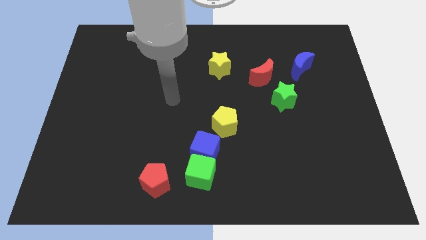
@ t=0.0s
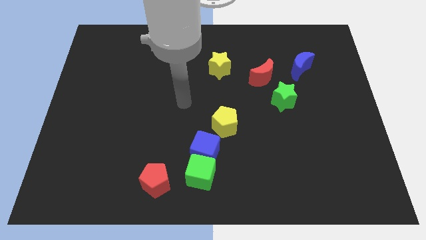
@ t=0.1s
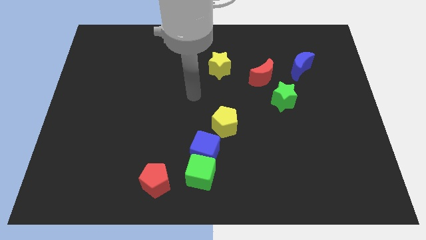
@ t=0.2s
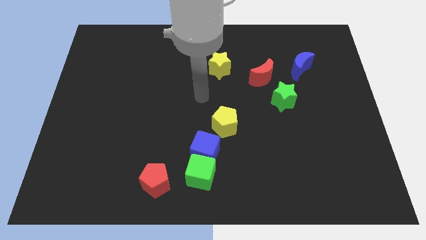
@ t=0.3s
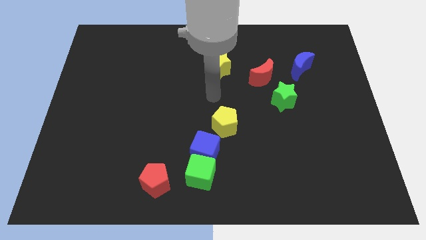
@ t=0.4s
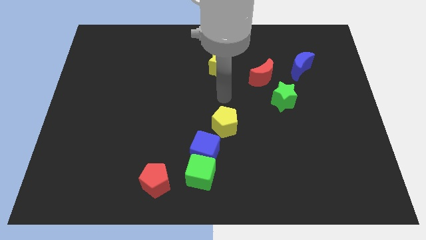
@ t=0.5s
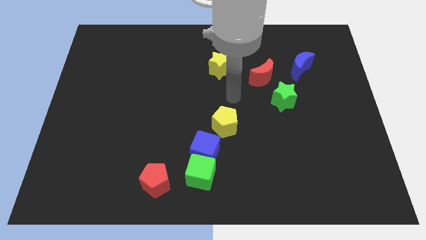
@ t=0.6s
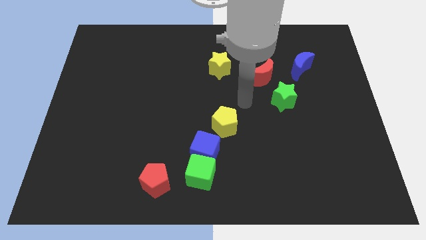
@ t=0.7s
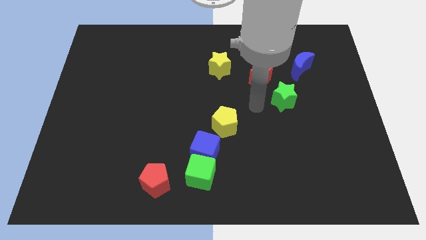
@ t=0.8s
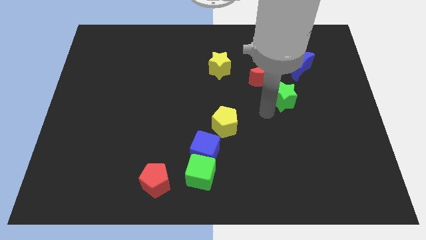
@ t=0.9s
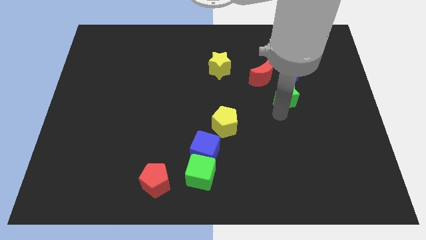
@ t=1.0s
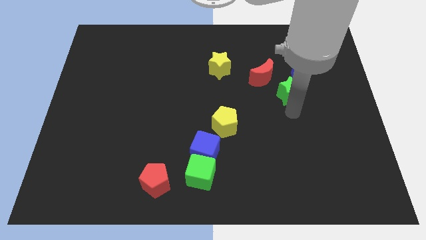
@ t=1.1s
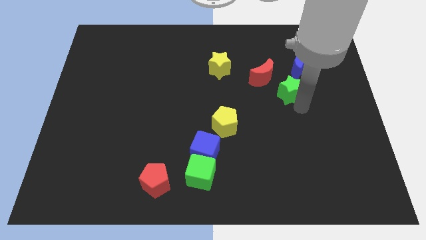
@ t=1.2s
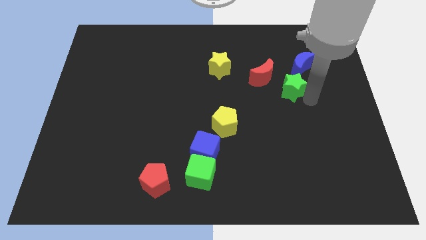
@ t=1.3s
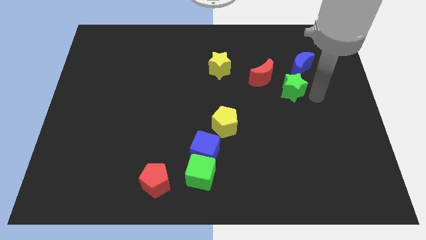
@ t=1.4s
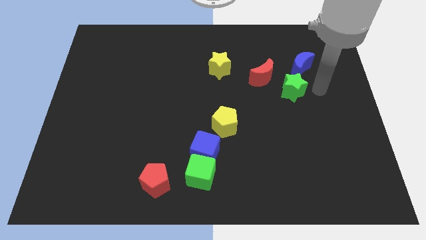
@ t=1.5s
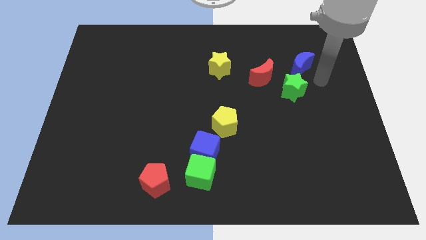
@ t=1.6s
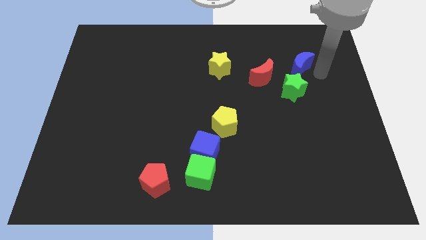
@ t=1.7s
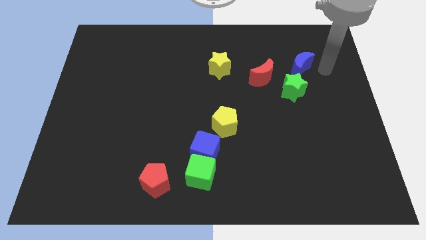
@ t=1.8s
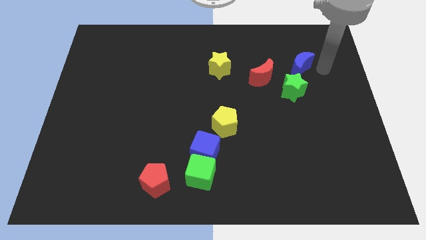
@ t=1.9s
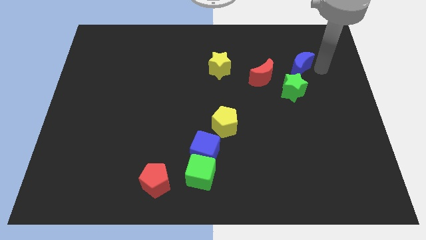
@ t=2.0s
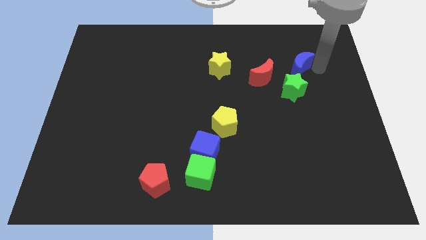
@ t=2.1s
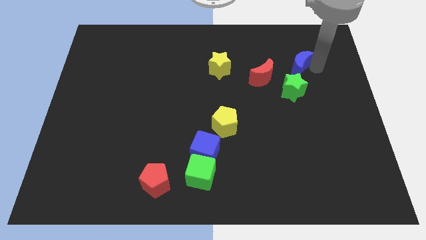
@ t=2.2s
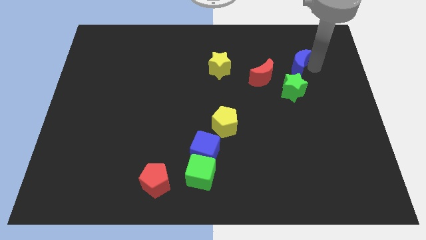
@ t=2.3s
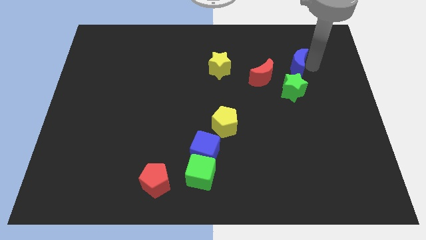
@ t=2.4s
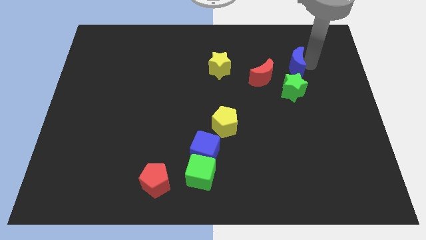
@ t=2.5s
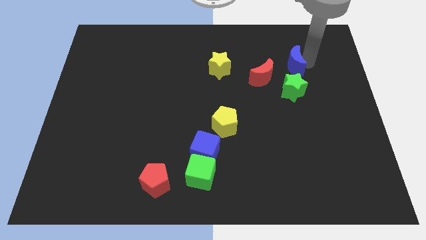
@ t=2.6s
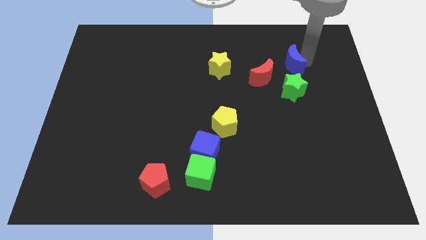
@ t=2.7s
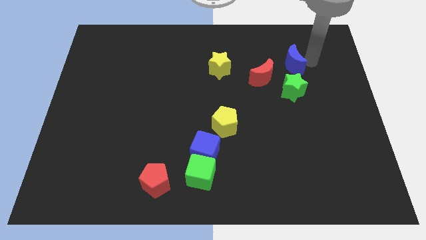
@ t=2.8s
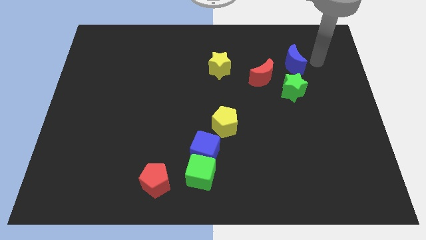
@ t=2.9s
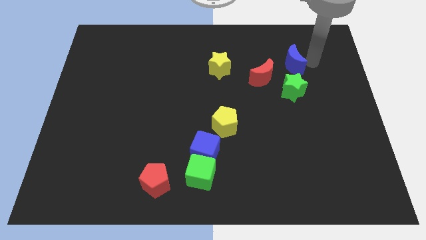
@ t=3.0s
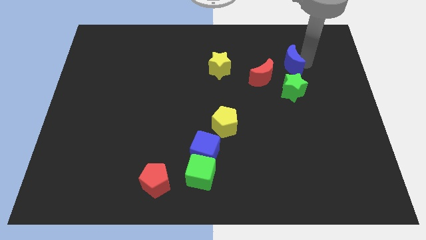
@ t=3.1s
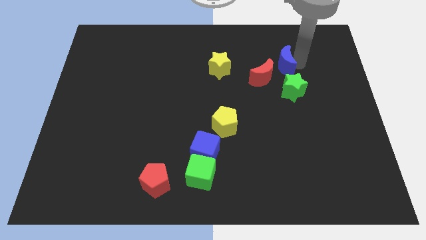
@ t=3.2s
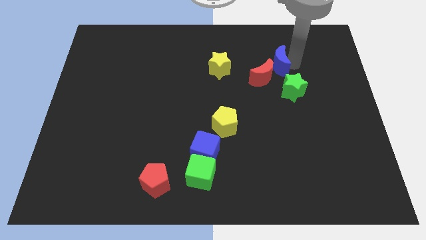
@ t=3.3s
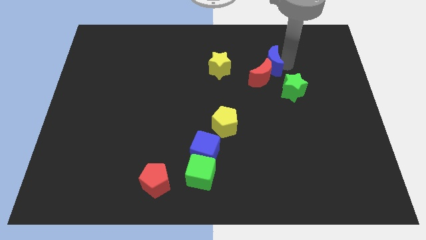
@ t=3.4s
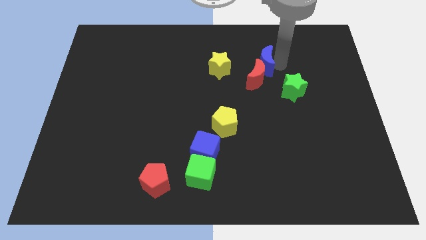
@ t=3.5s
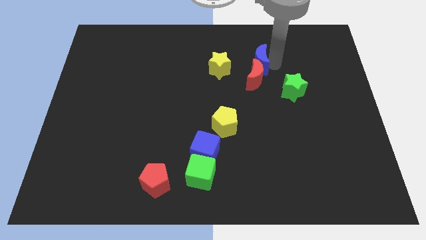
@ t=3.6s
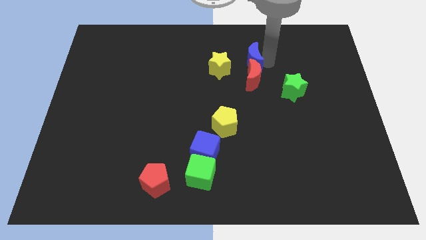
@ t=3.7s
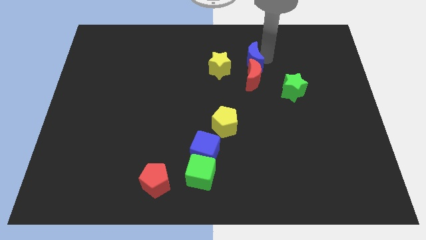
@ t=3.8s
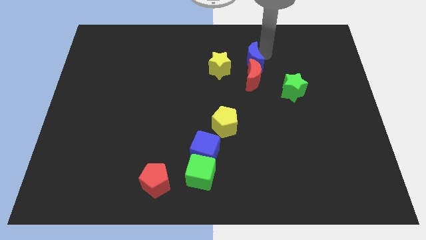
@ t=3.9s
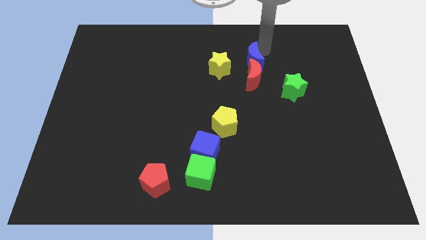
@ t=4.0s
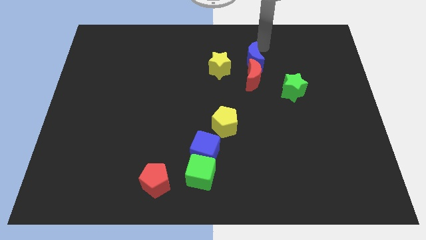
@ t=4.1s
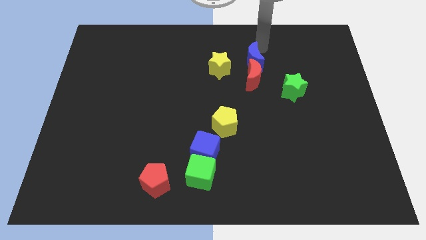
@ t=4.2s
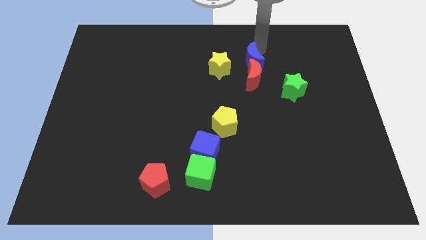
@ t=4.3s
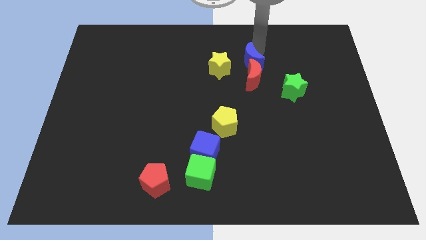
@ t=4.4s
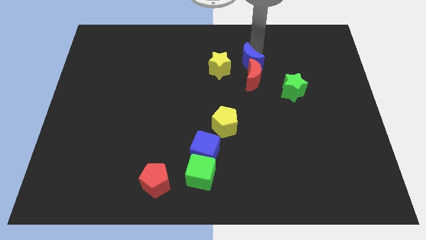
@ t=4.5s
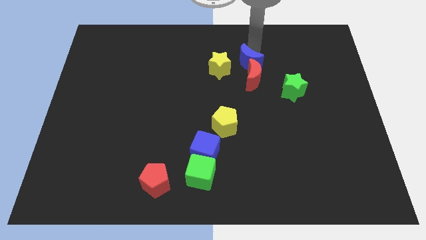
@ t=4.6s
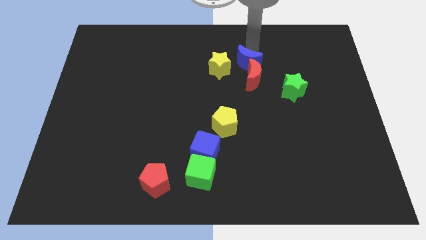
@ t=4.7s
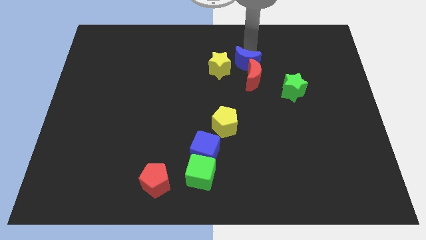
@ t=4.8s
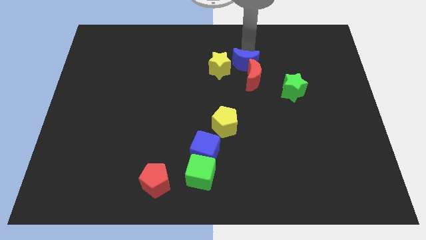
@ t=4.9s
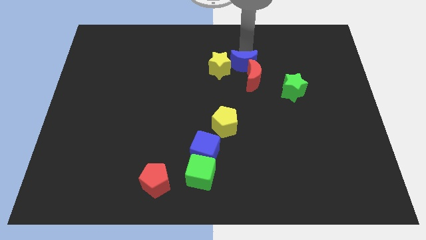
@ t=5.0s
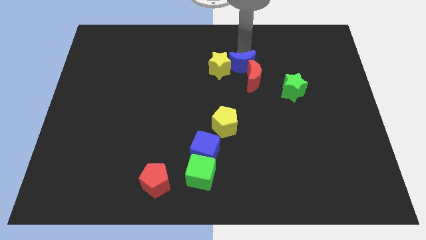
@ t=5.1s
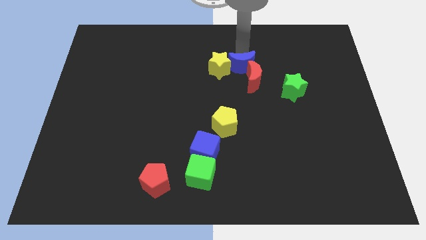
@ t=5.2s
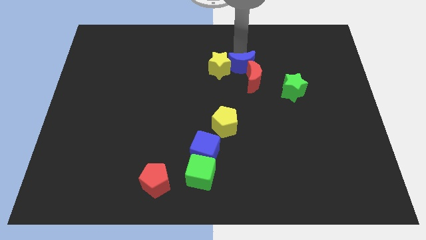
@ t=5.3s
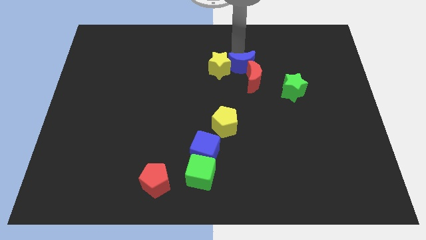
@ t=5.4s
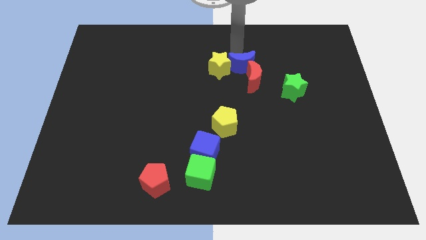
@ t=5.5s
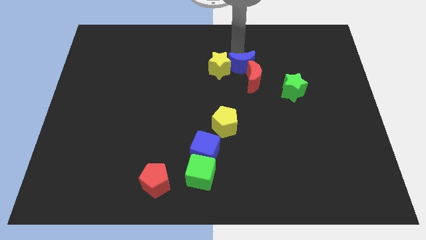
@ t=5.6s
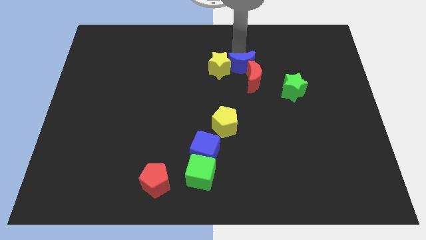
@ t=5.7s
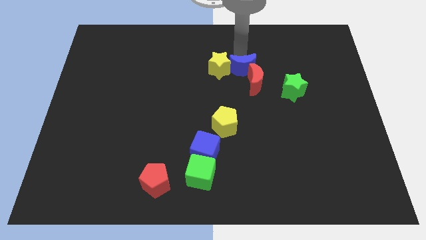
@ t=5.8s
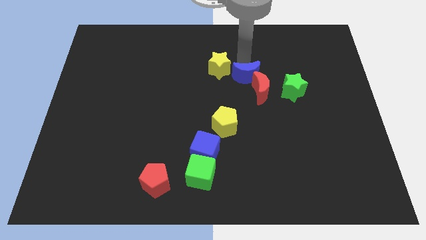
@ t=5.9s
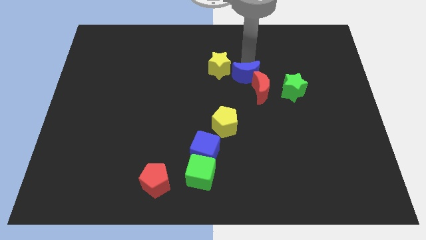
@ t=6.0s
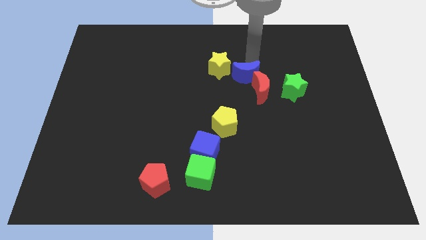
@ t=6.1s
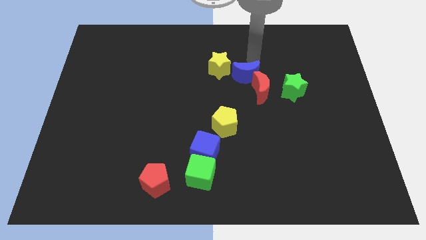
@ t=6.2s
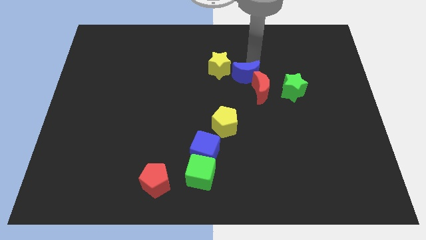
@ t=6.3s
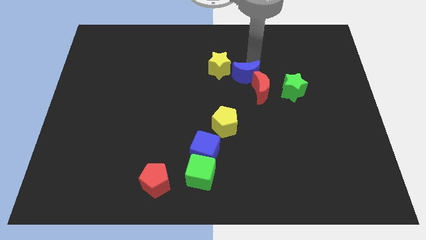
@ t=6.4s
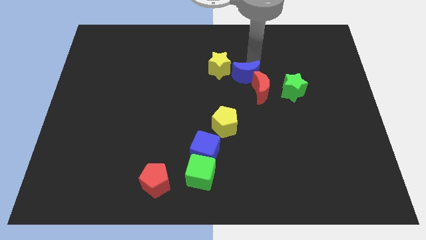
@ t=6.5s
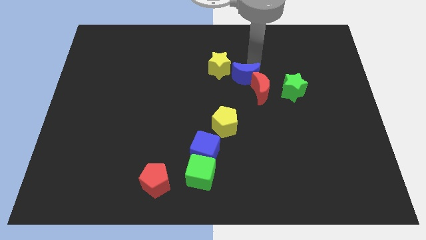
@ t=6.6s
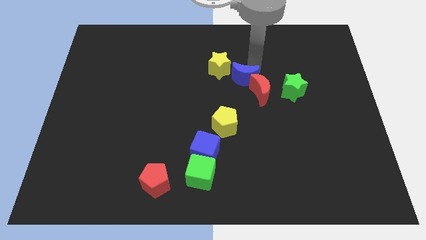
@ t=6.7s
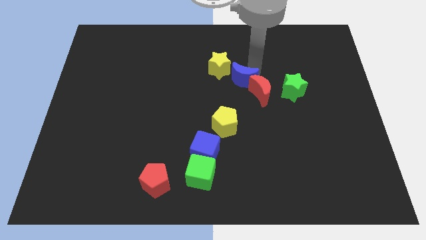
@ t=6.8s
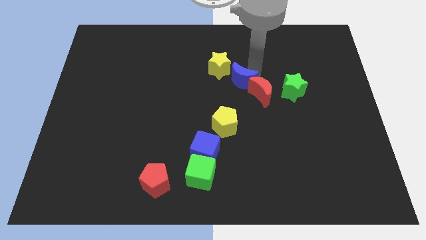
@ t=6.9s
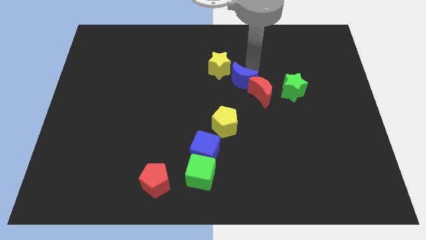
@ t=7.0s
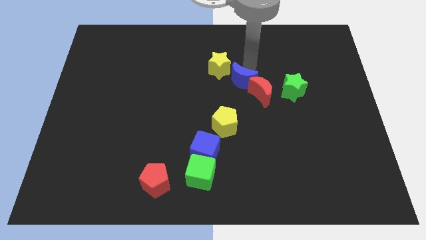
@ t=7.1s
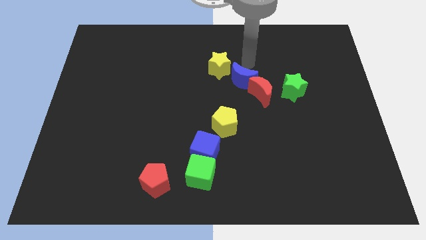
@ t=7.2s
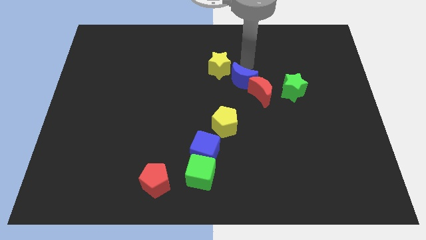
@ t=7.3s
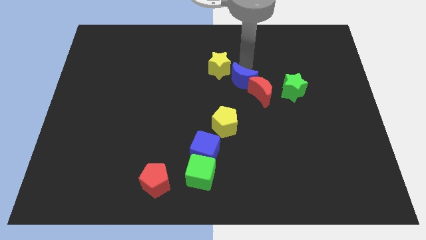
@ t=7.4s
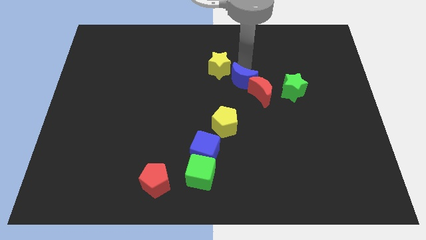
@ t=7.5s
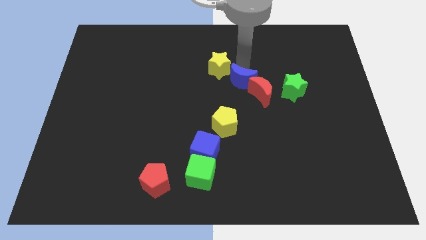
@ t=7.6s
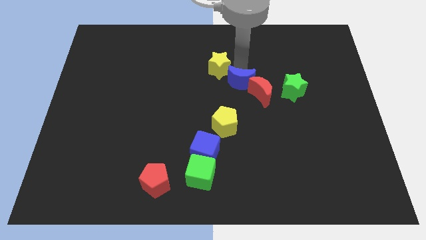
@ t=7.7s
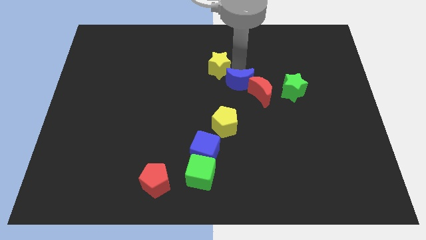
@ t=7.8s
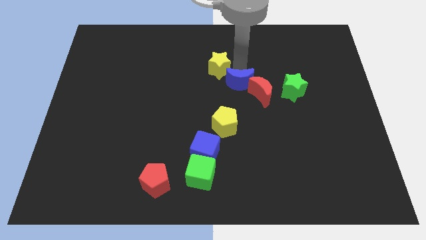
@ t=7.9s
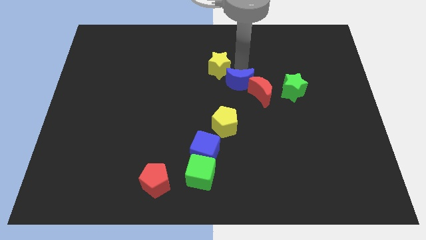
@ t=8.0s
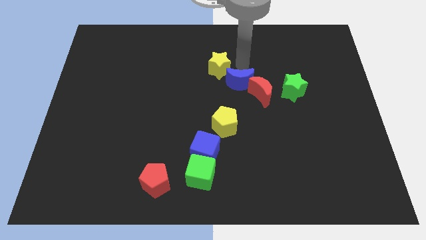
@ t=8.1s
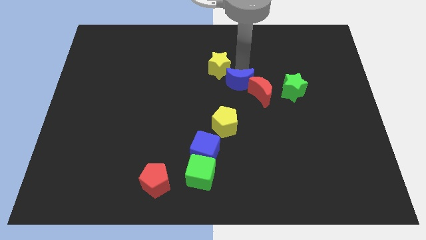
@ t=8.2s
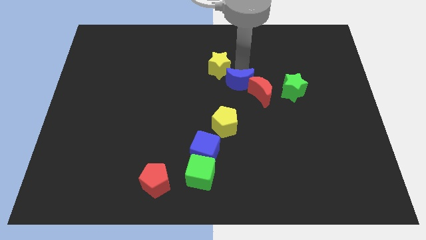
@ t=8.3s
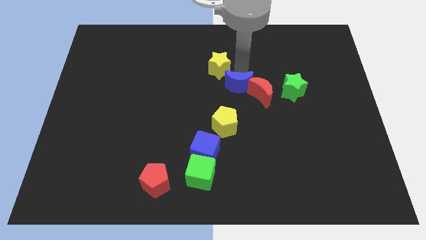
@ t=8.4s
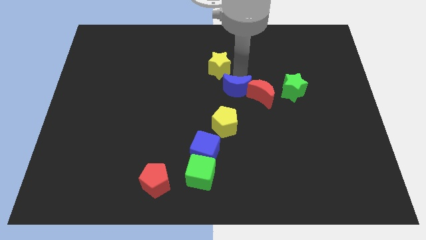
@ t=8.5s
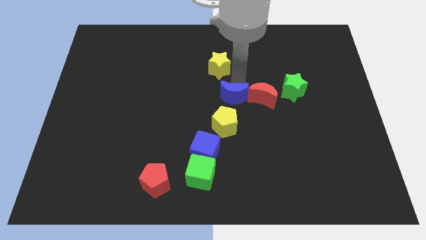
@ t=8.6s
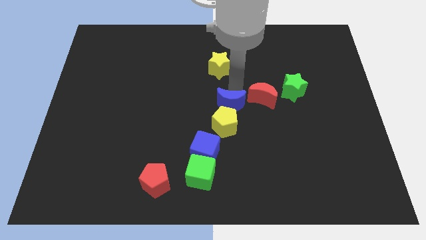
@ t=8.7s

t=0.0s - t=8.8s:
move the blue moon next to the yellow pentagon
